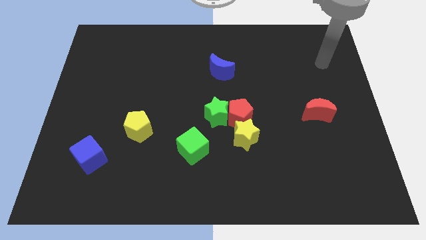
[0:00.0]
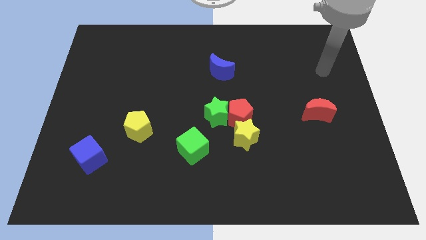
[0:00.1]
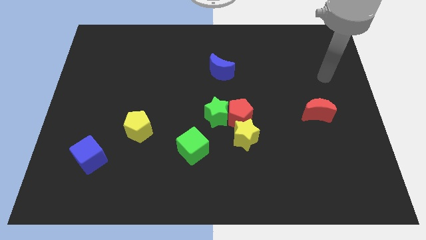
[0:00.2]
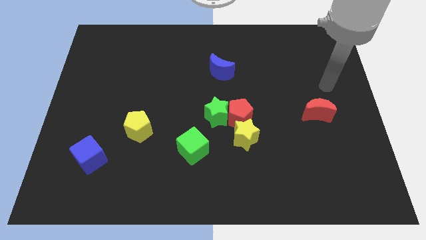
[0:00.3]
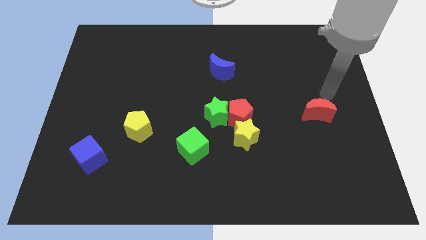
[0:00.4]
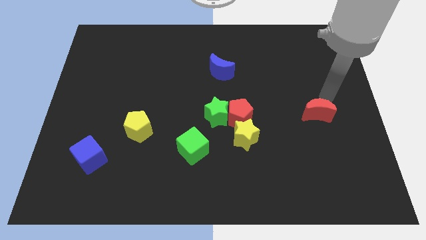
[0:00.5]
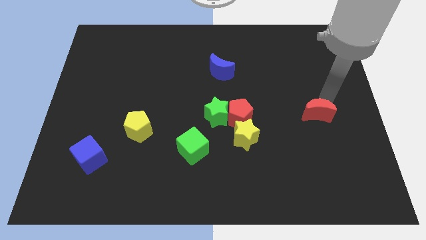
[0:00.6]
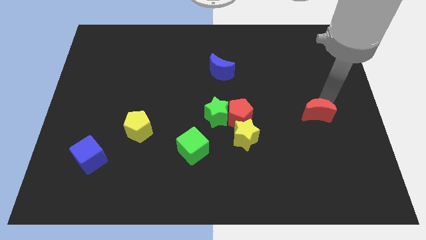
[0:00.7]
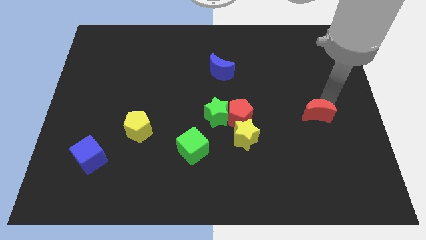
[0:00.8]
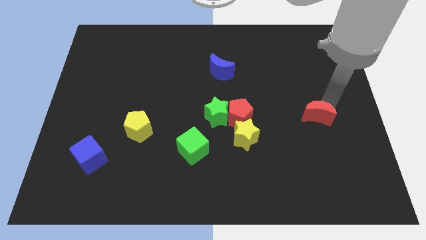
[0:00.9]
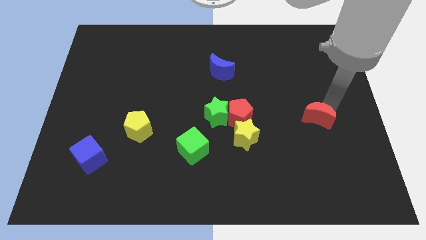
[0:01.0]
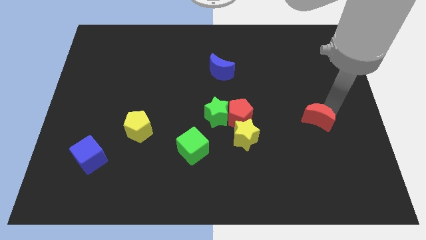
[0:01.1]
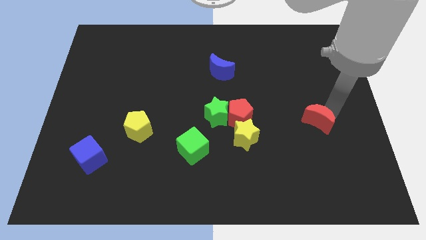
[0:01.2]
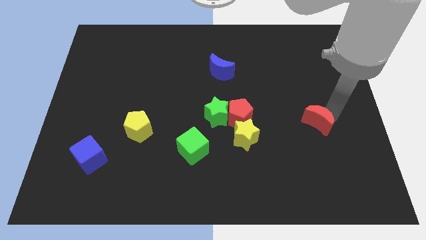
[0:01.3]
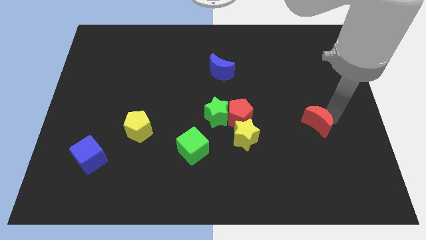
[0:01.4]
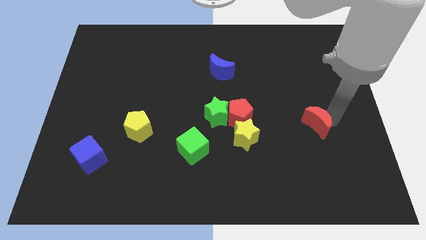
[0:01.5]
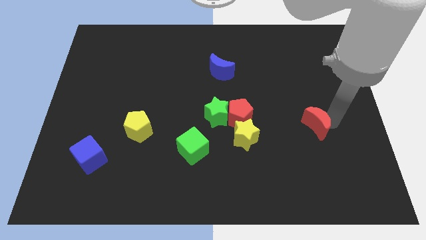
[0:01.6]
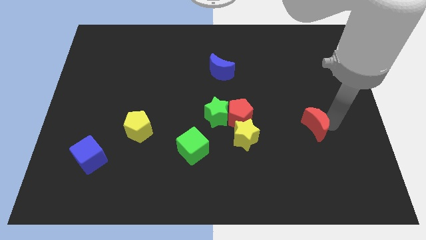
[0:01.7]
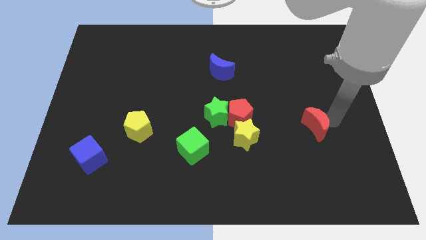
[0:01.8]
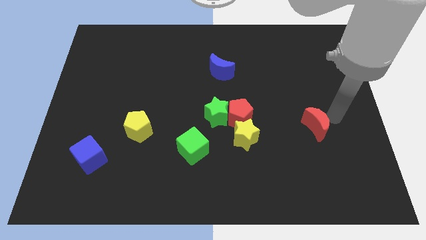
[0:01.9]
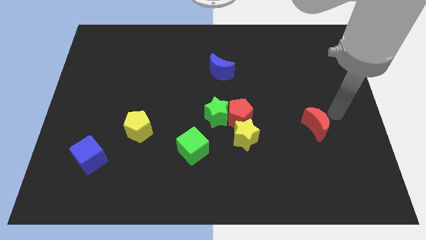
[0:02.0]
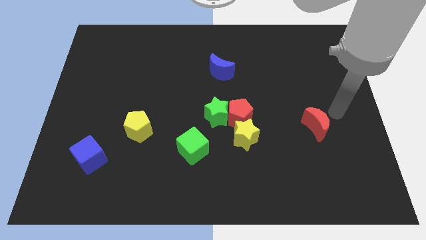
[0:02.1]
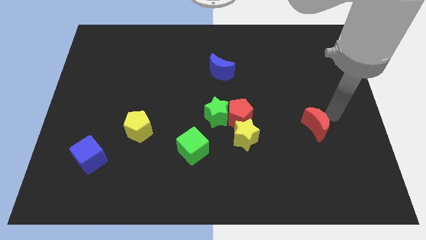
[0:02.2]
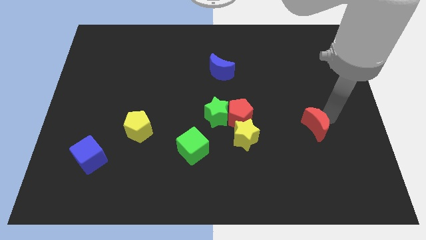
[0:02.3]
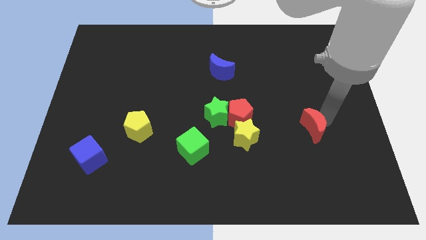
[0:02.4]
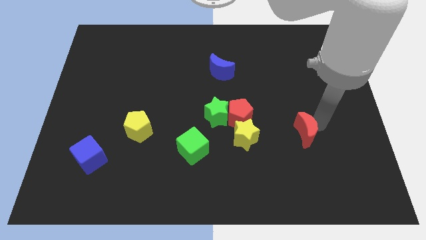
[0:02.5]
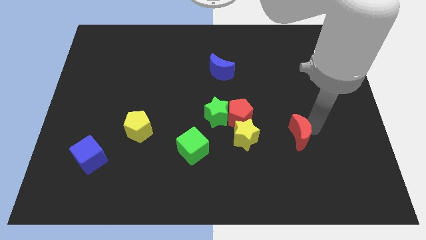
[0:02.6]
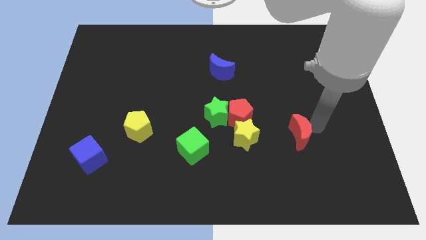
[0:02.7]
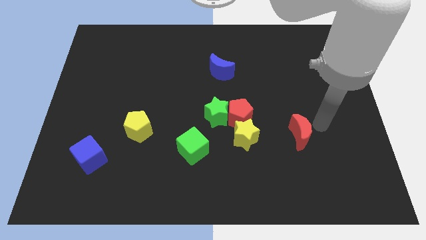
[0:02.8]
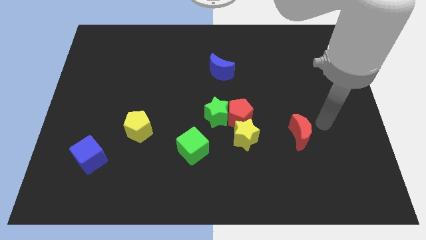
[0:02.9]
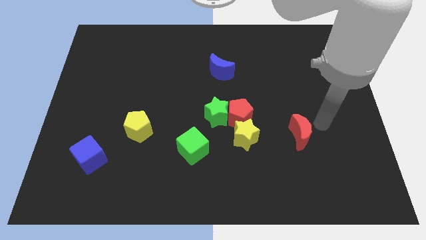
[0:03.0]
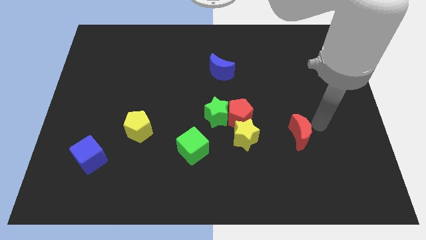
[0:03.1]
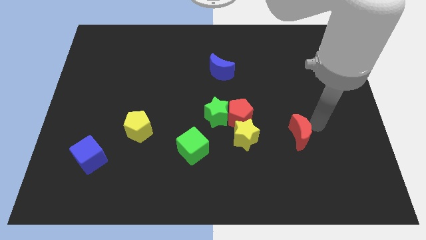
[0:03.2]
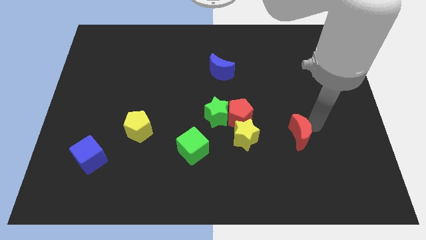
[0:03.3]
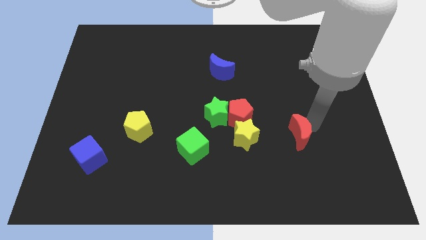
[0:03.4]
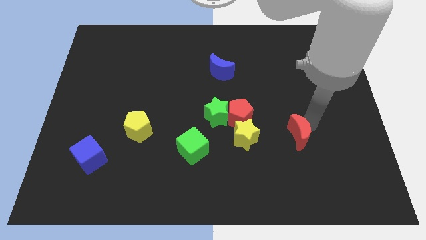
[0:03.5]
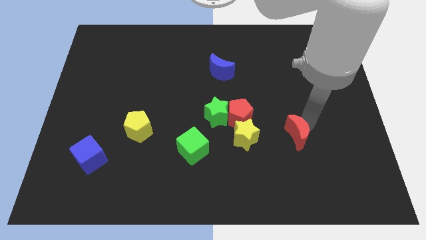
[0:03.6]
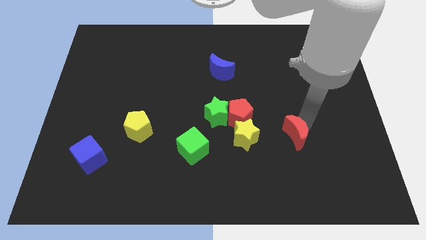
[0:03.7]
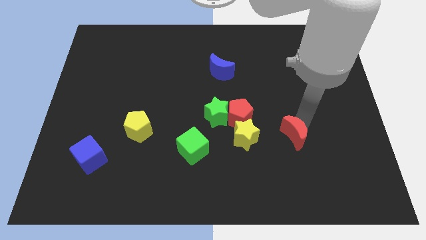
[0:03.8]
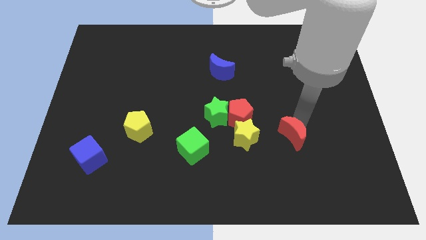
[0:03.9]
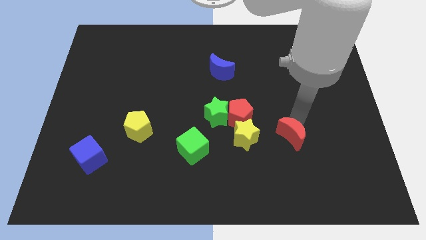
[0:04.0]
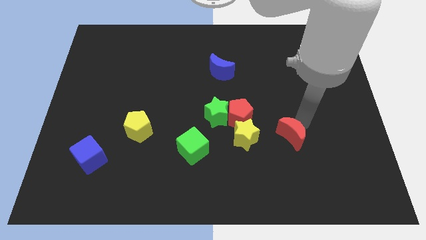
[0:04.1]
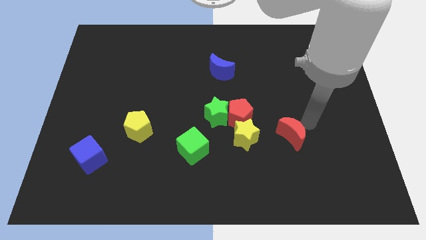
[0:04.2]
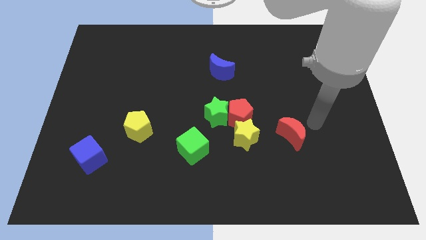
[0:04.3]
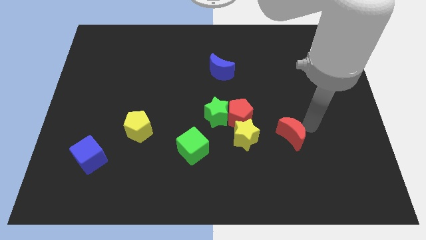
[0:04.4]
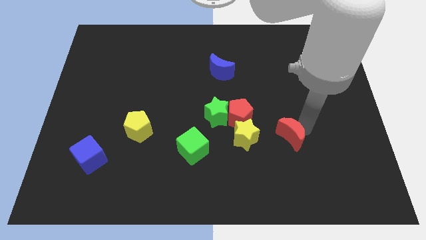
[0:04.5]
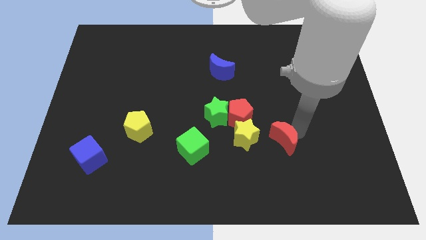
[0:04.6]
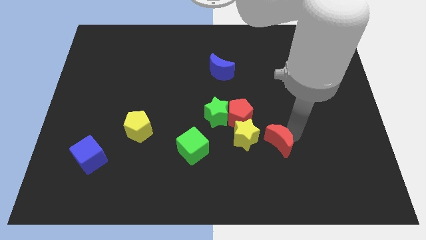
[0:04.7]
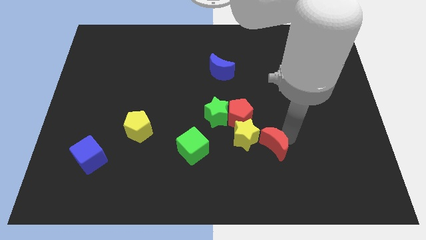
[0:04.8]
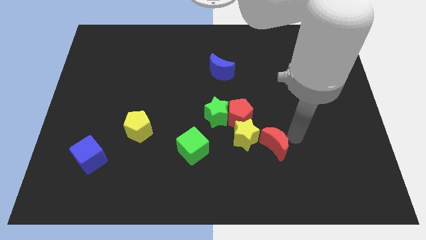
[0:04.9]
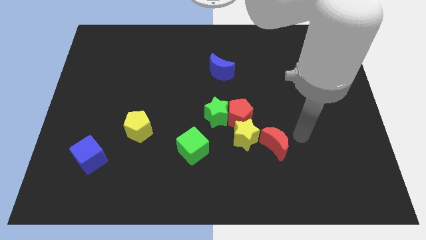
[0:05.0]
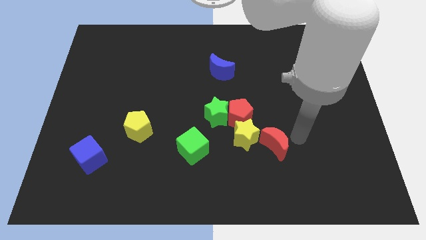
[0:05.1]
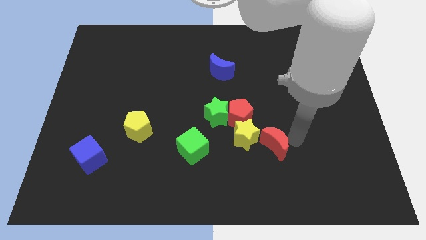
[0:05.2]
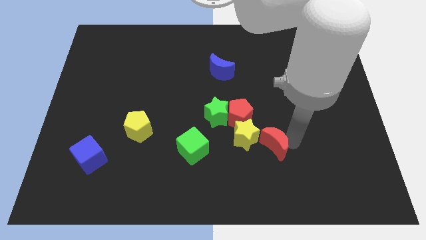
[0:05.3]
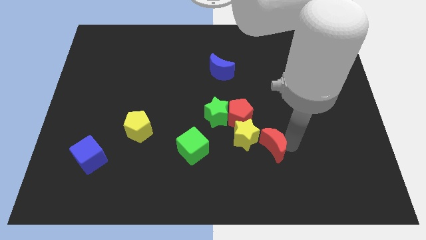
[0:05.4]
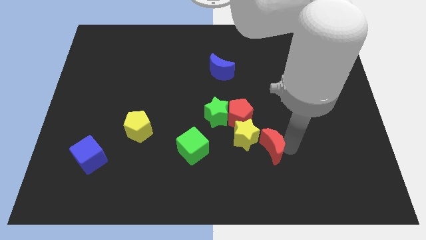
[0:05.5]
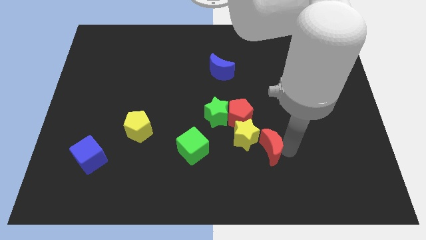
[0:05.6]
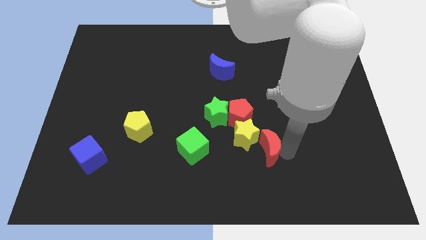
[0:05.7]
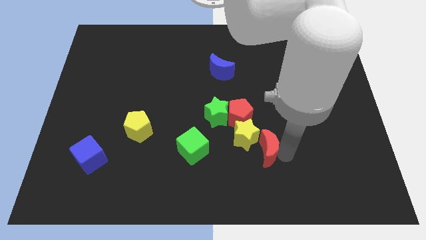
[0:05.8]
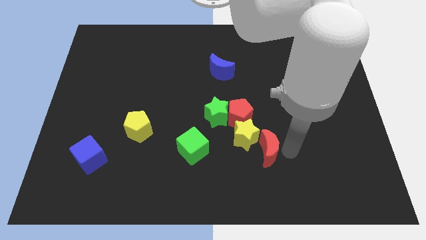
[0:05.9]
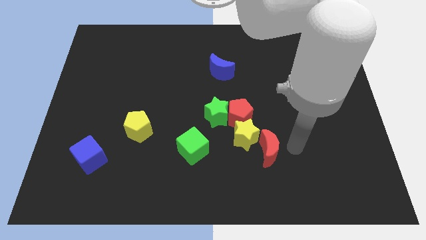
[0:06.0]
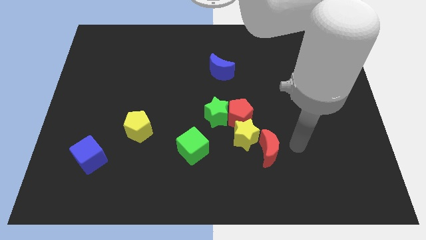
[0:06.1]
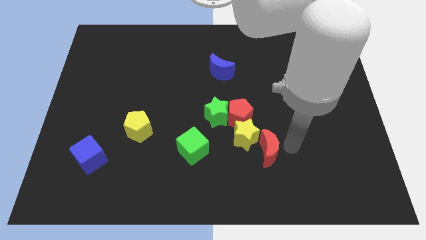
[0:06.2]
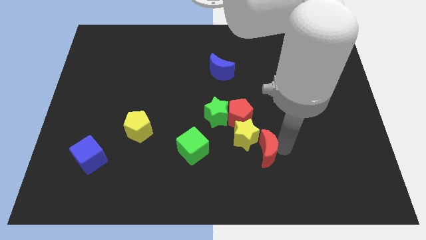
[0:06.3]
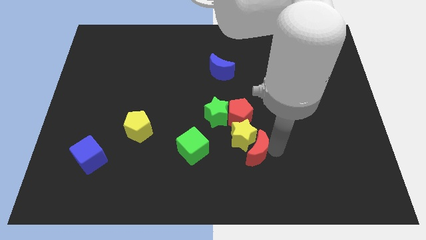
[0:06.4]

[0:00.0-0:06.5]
put the red moon to the bottom side of the red pentagon
